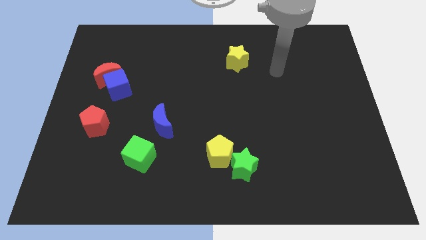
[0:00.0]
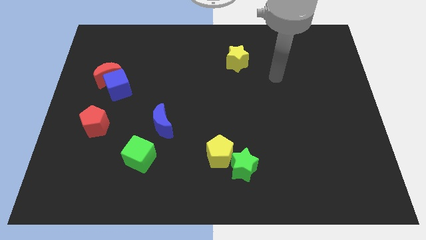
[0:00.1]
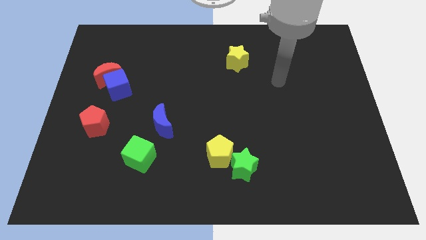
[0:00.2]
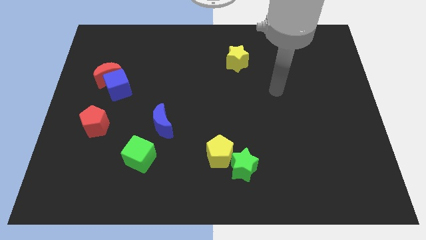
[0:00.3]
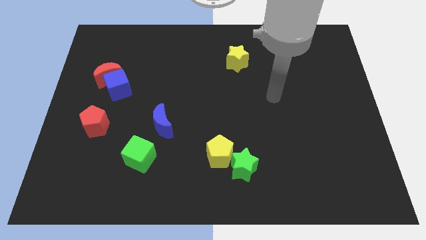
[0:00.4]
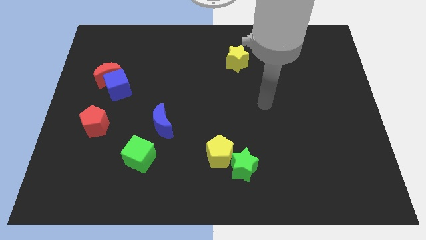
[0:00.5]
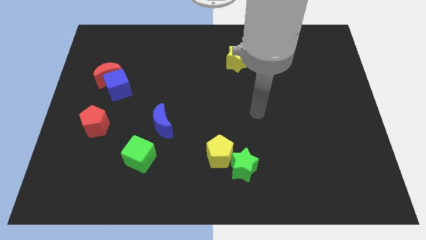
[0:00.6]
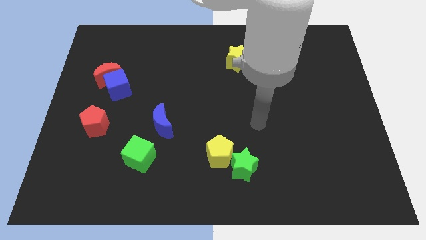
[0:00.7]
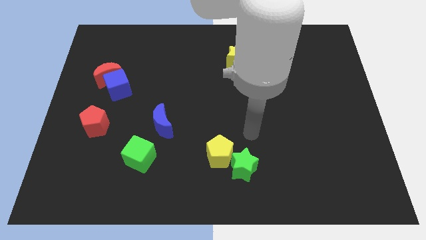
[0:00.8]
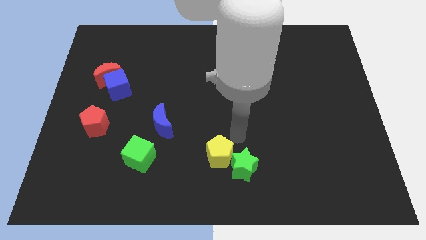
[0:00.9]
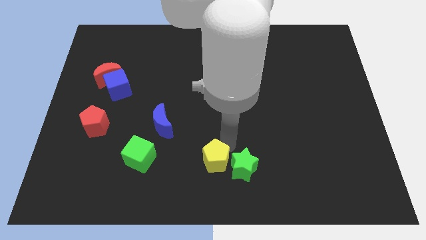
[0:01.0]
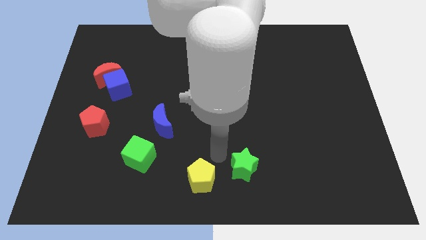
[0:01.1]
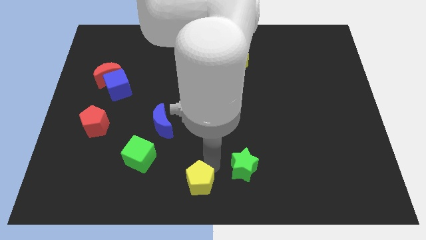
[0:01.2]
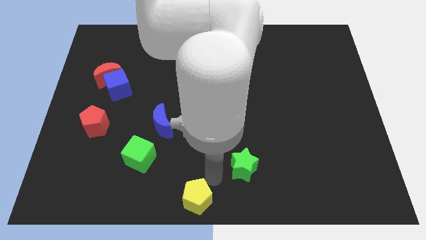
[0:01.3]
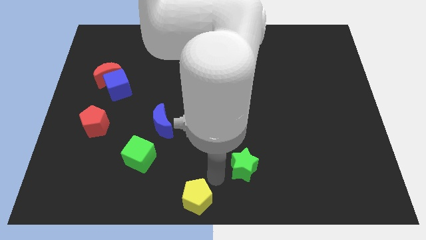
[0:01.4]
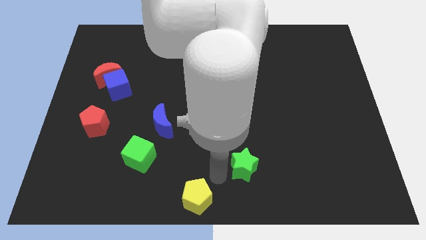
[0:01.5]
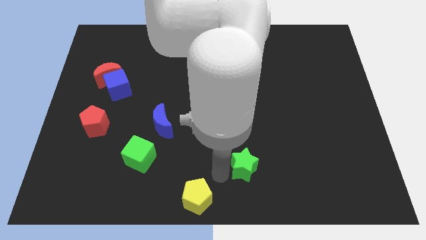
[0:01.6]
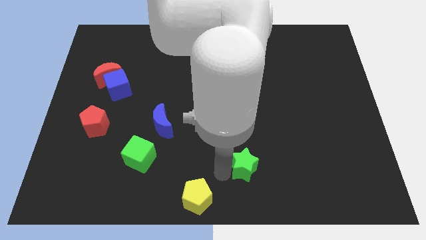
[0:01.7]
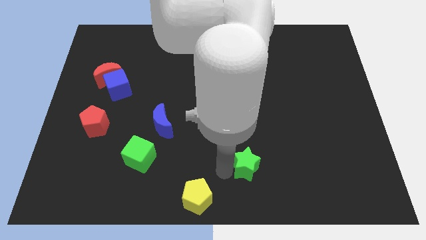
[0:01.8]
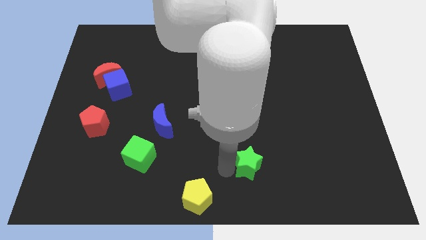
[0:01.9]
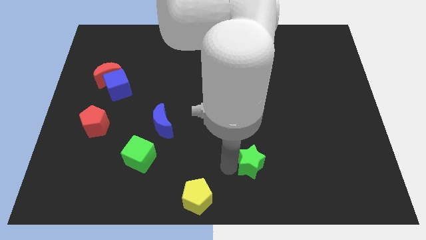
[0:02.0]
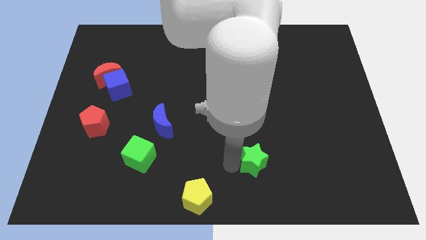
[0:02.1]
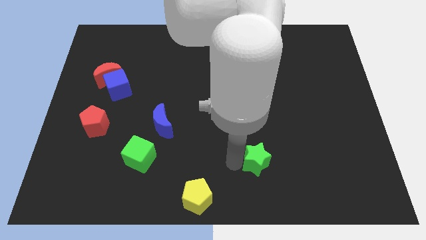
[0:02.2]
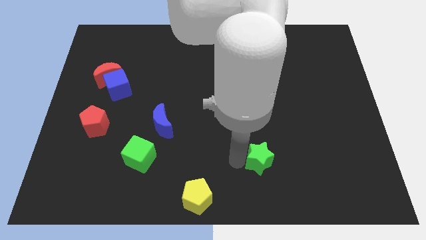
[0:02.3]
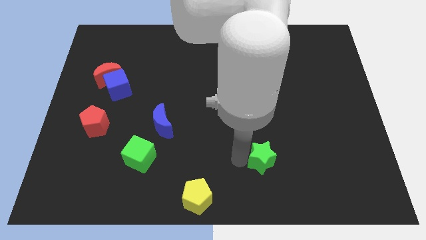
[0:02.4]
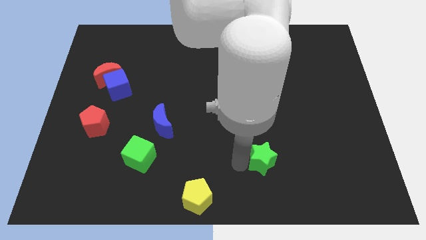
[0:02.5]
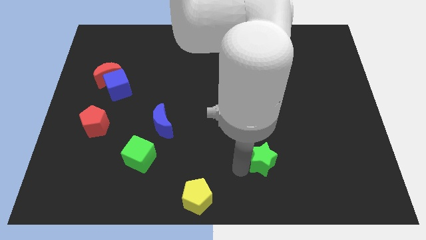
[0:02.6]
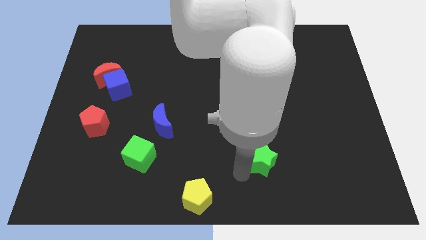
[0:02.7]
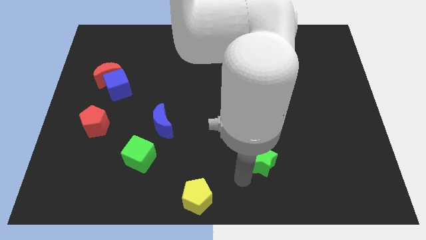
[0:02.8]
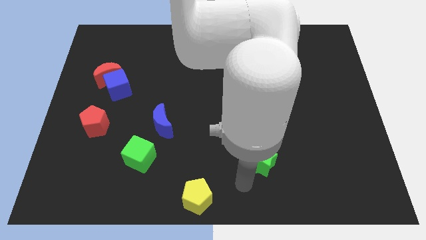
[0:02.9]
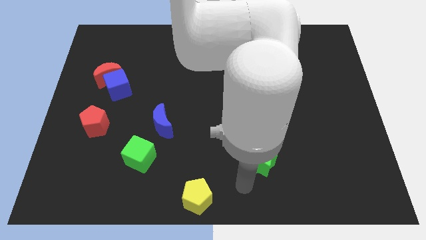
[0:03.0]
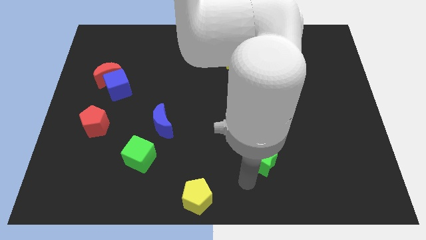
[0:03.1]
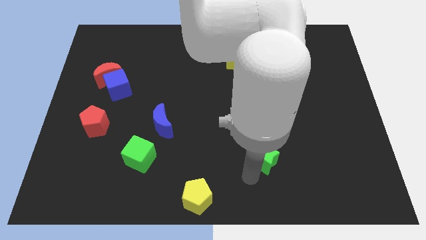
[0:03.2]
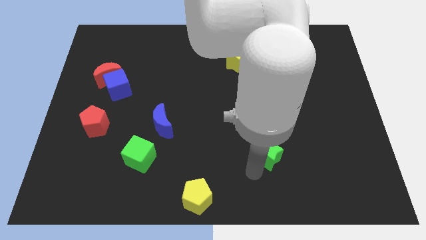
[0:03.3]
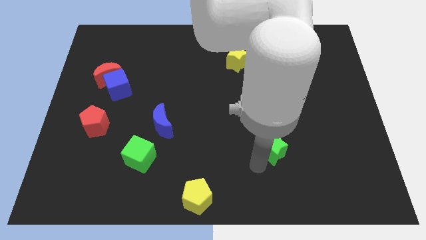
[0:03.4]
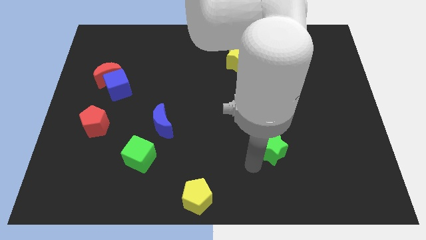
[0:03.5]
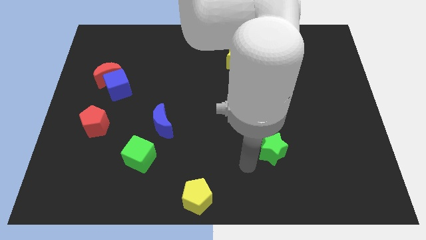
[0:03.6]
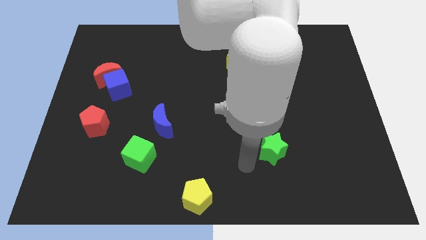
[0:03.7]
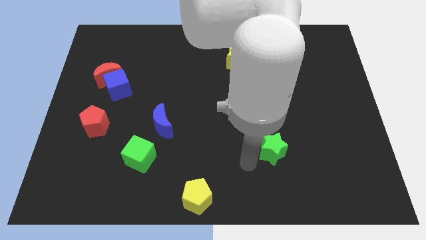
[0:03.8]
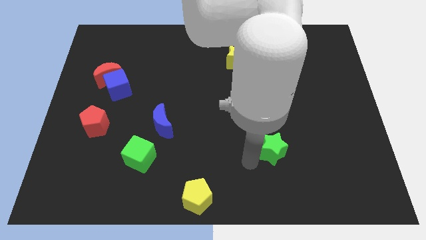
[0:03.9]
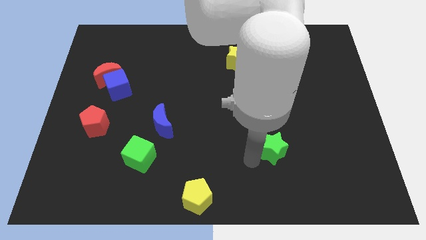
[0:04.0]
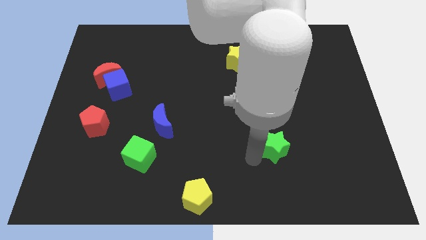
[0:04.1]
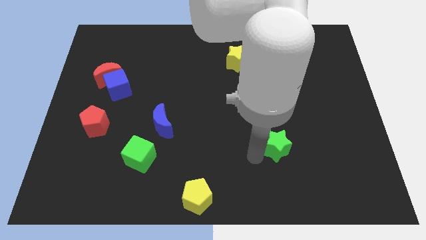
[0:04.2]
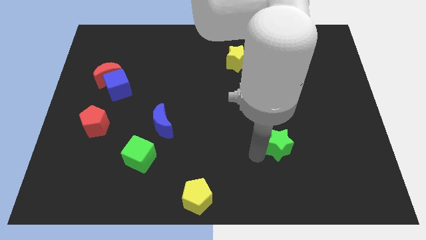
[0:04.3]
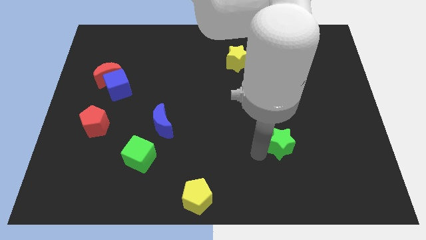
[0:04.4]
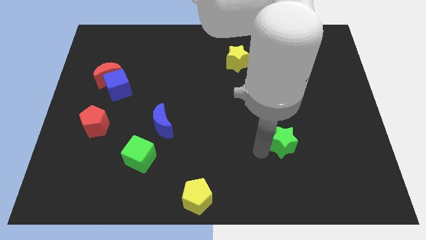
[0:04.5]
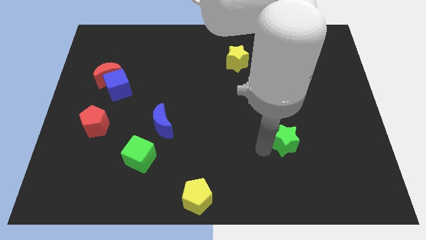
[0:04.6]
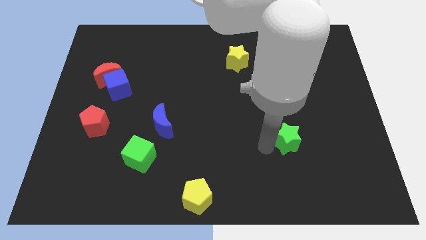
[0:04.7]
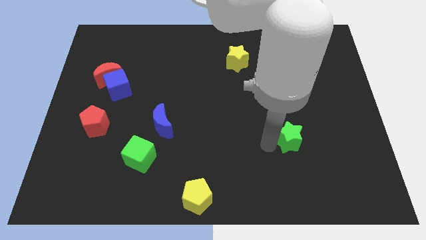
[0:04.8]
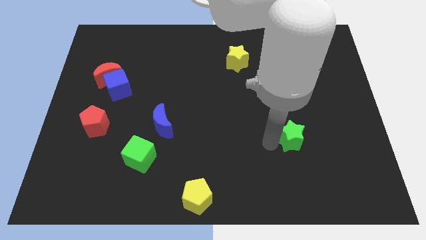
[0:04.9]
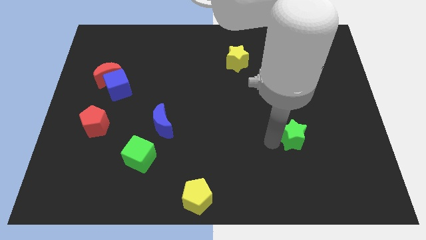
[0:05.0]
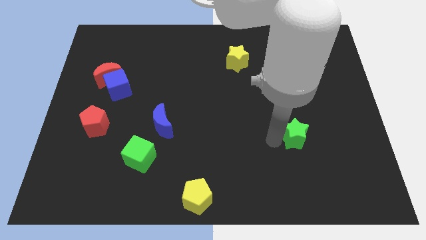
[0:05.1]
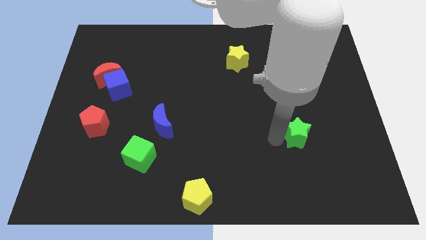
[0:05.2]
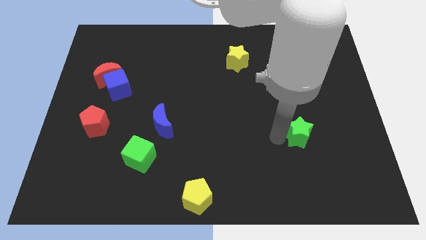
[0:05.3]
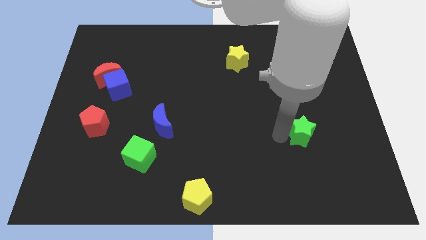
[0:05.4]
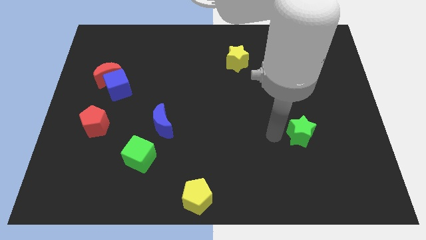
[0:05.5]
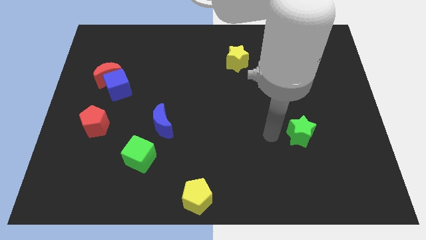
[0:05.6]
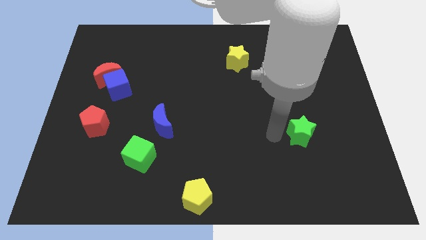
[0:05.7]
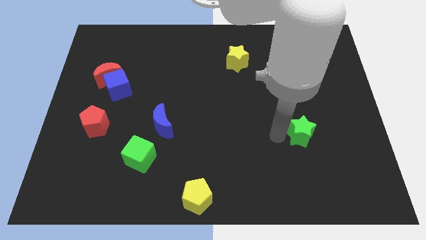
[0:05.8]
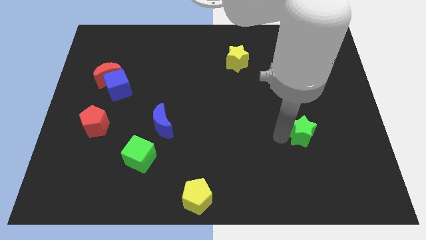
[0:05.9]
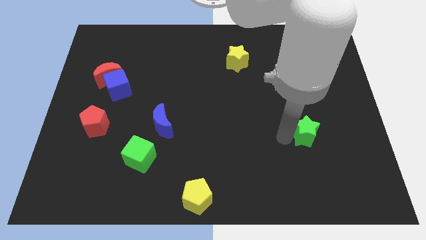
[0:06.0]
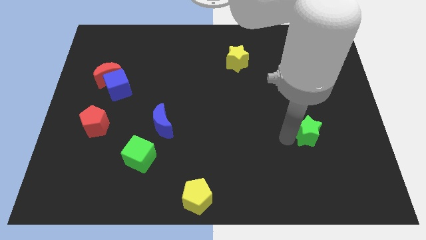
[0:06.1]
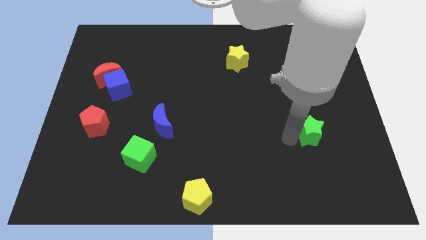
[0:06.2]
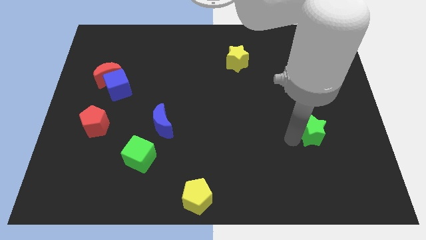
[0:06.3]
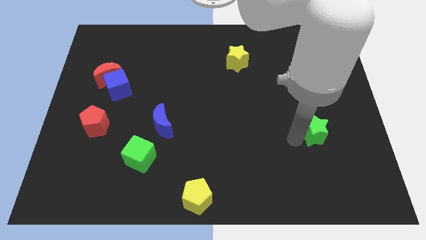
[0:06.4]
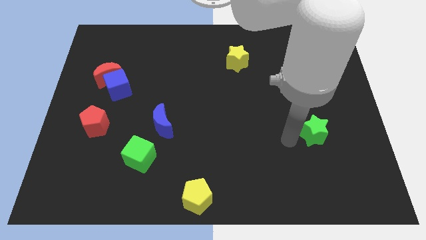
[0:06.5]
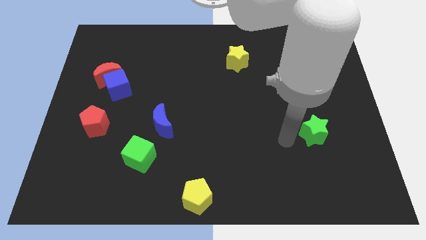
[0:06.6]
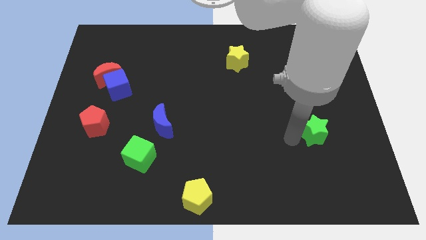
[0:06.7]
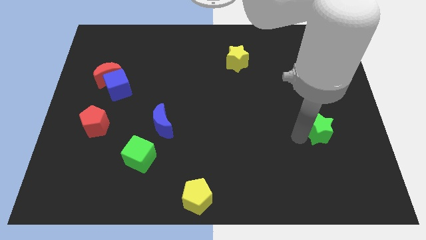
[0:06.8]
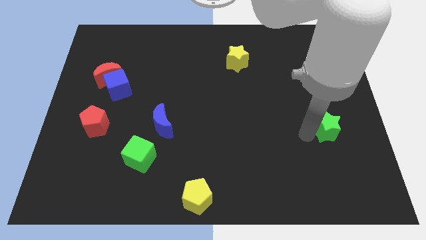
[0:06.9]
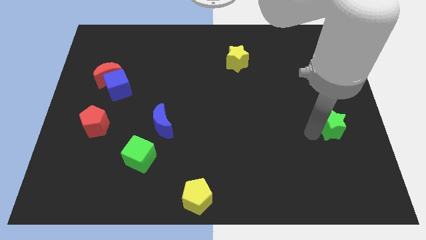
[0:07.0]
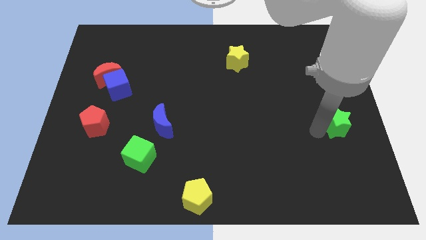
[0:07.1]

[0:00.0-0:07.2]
put the green star to the right side of the board
